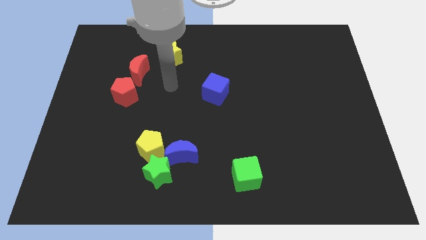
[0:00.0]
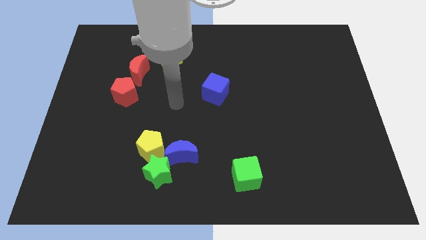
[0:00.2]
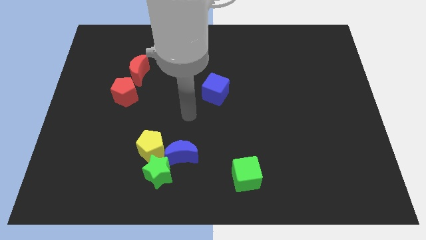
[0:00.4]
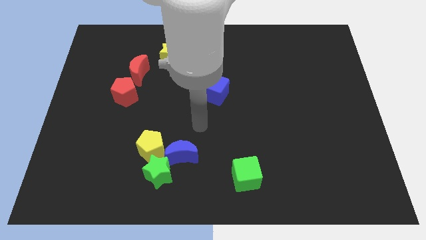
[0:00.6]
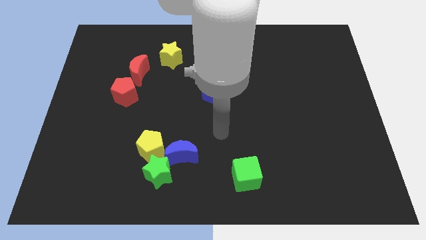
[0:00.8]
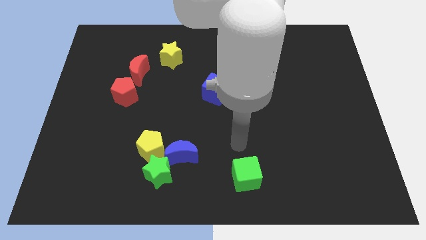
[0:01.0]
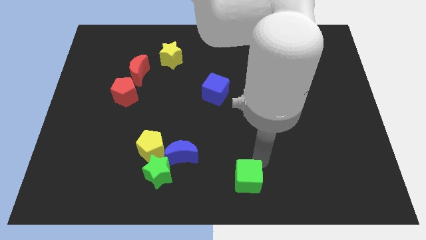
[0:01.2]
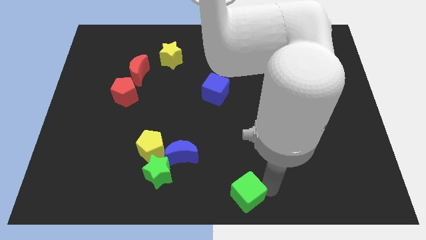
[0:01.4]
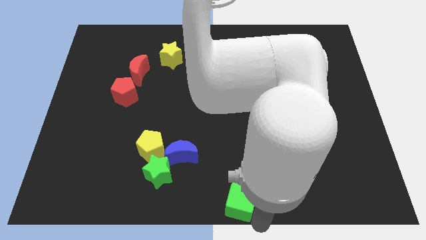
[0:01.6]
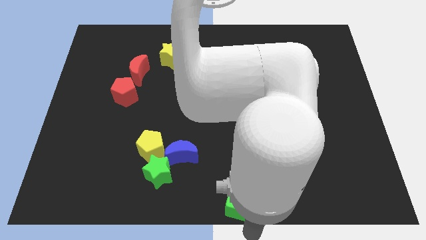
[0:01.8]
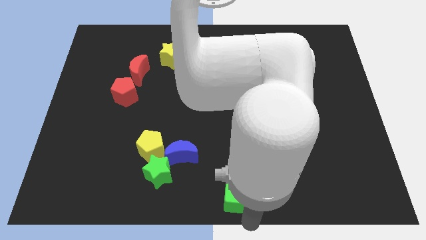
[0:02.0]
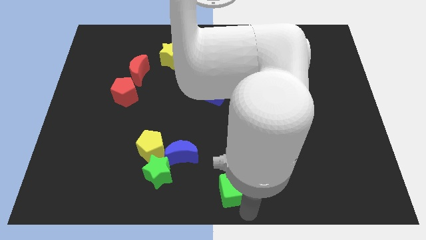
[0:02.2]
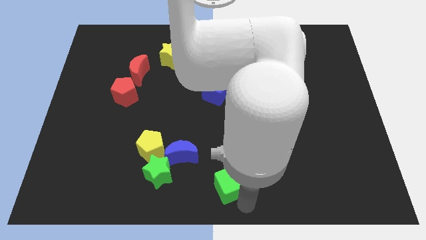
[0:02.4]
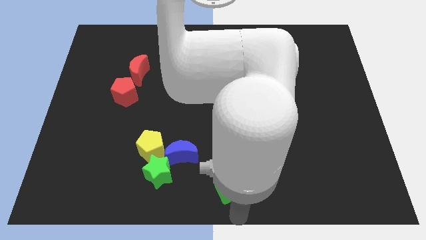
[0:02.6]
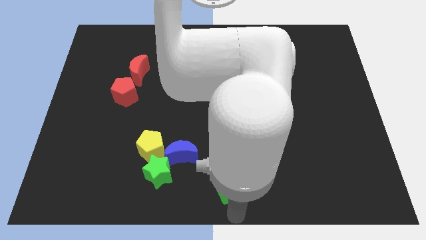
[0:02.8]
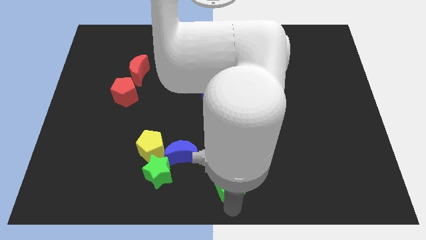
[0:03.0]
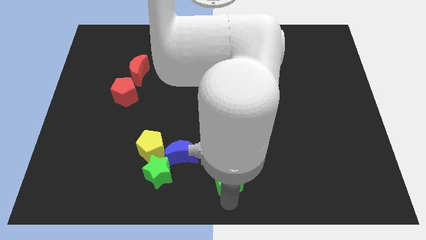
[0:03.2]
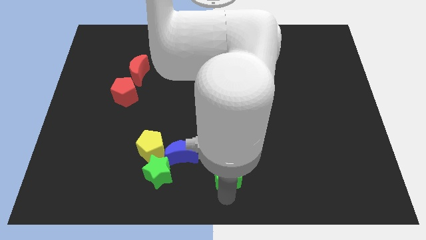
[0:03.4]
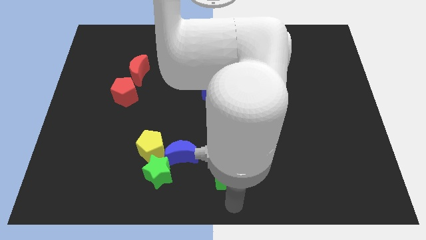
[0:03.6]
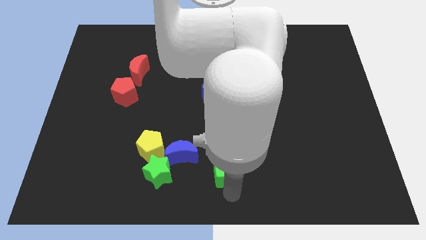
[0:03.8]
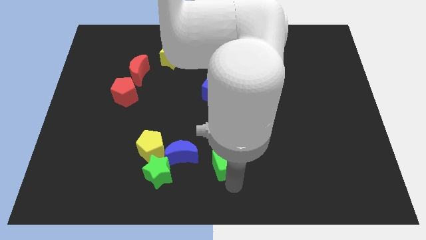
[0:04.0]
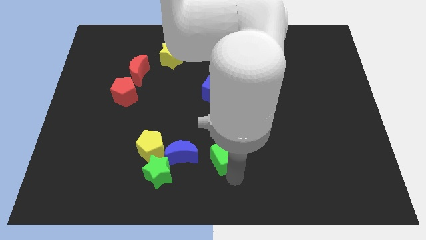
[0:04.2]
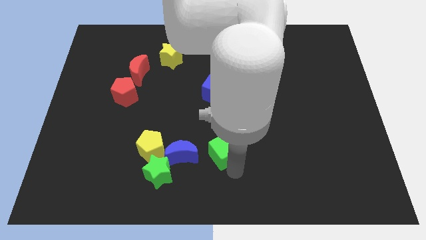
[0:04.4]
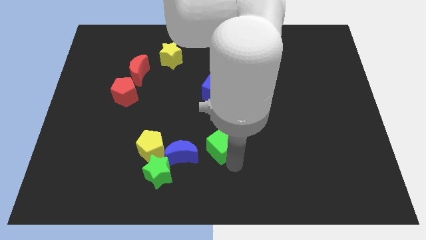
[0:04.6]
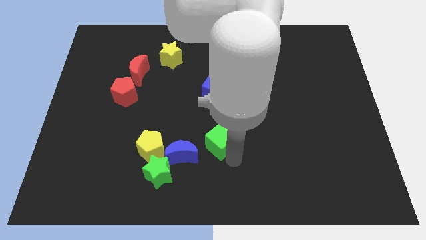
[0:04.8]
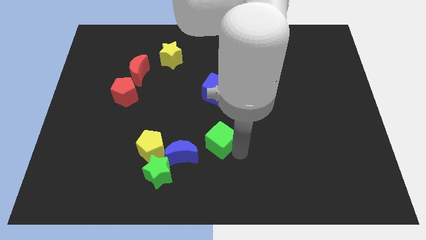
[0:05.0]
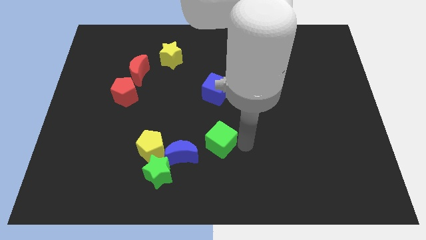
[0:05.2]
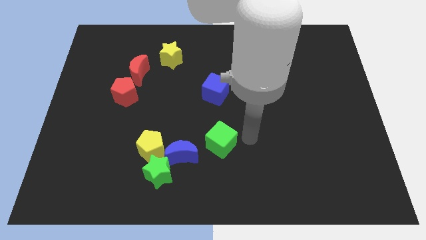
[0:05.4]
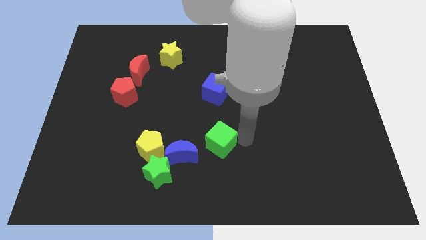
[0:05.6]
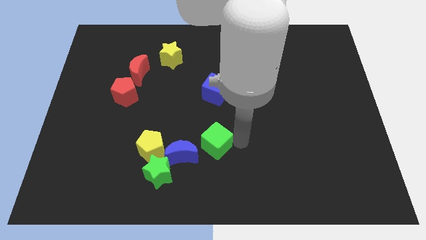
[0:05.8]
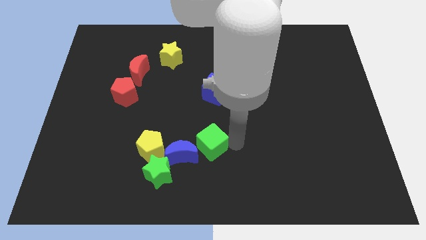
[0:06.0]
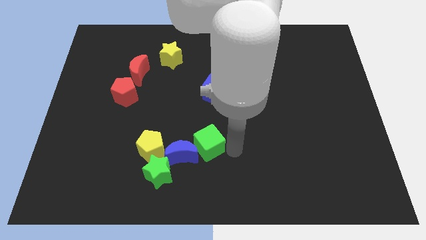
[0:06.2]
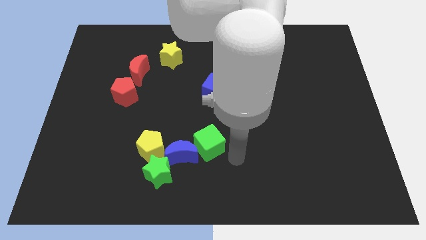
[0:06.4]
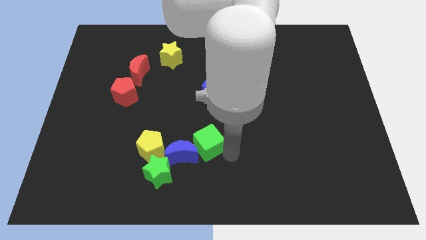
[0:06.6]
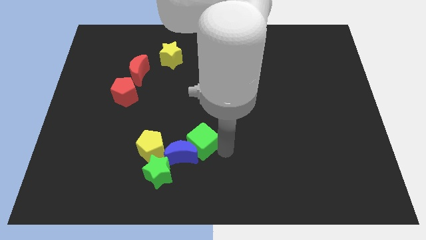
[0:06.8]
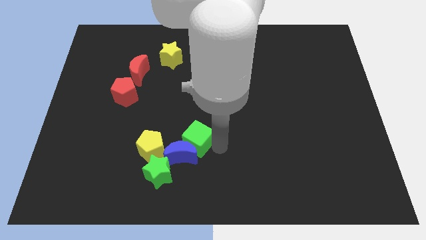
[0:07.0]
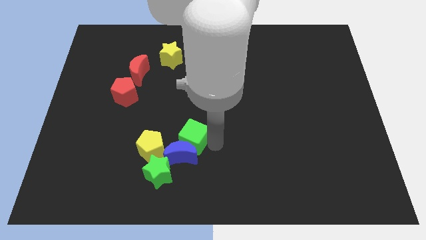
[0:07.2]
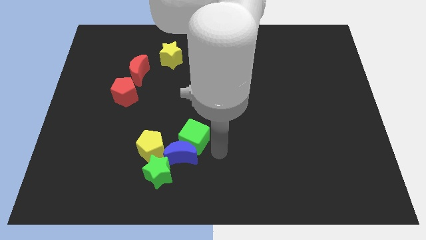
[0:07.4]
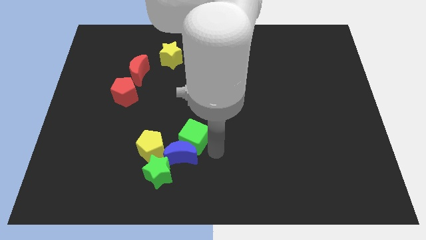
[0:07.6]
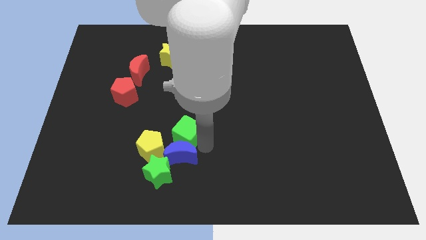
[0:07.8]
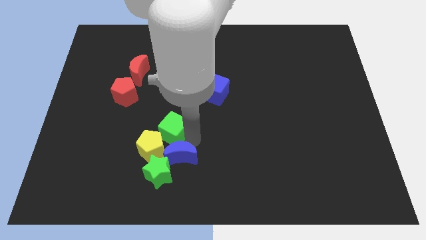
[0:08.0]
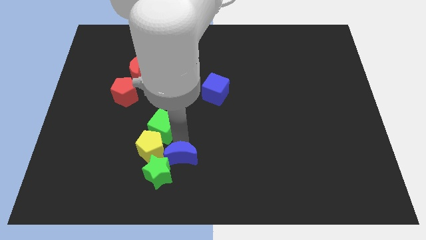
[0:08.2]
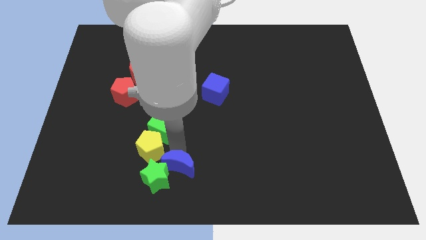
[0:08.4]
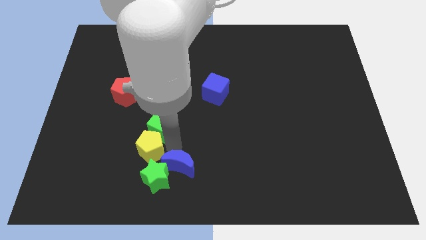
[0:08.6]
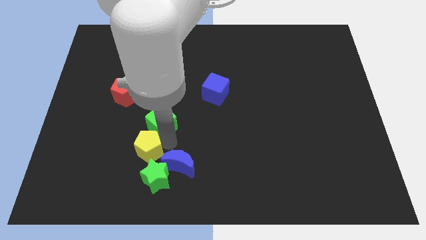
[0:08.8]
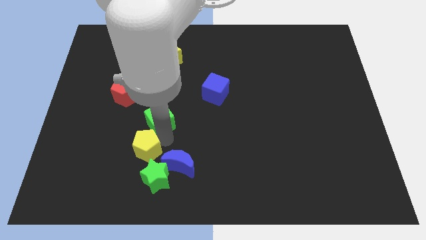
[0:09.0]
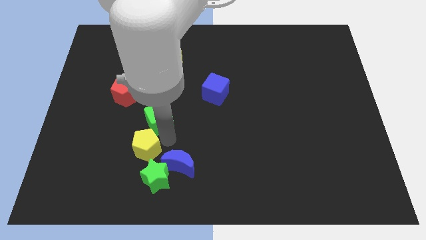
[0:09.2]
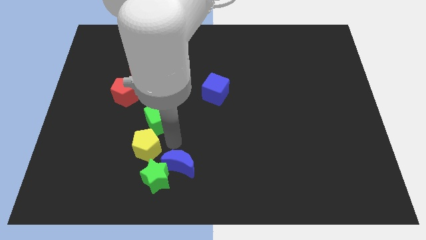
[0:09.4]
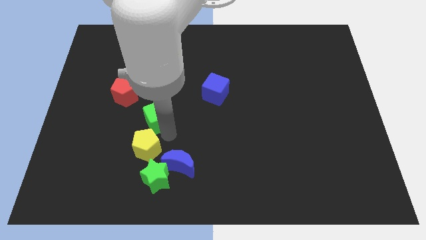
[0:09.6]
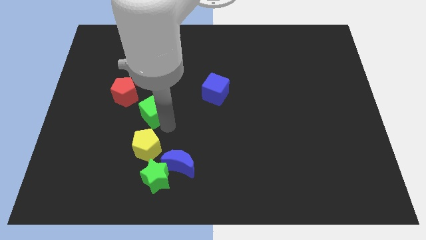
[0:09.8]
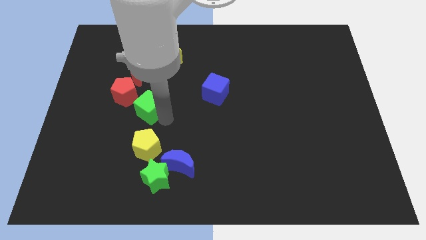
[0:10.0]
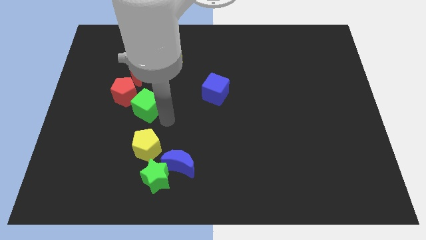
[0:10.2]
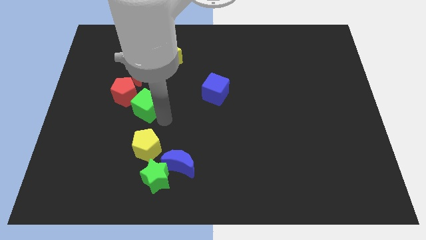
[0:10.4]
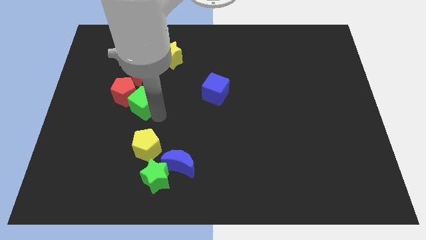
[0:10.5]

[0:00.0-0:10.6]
slide the green cube to the red pentagon

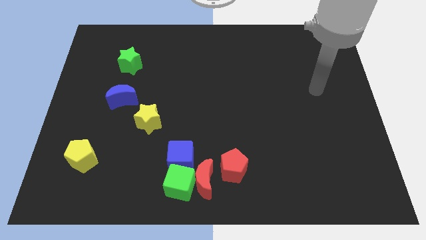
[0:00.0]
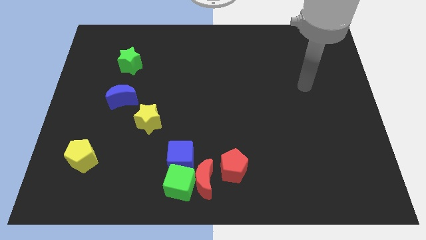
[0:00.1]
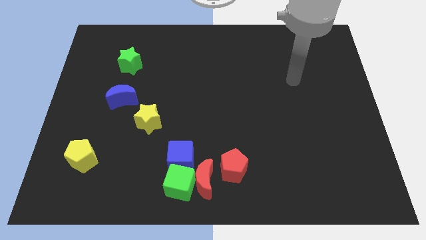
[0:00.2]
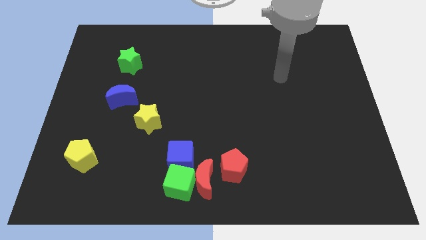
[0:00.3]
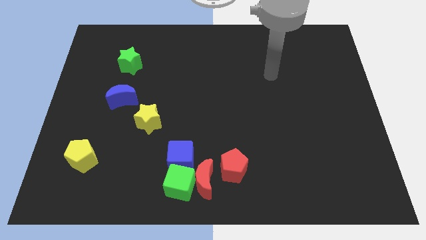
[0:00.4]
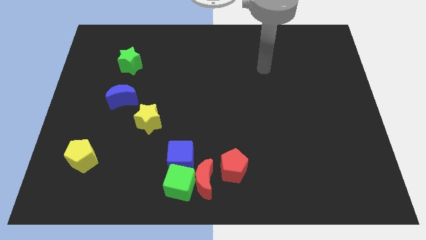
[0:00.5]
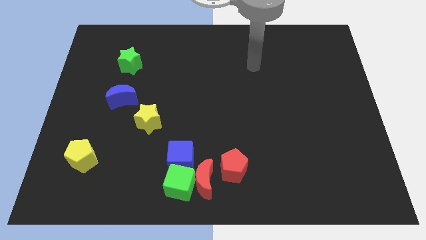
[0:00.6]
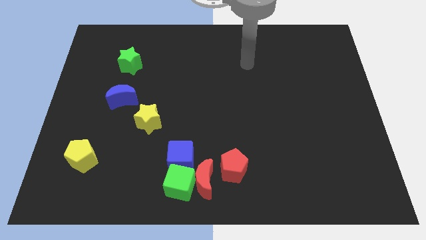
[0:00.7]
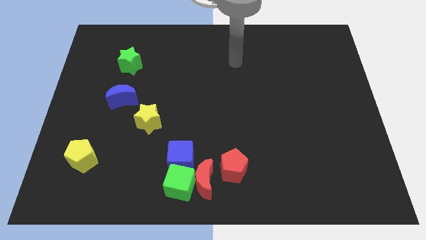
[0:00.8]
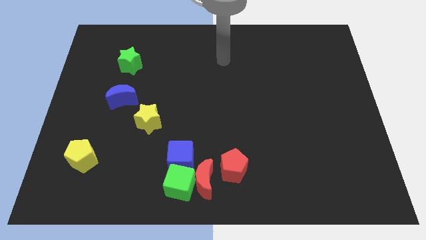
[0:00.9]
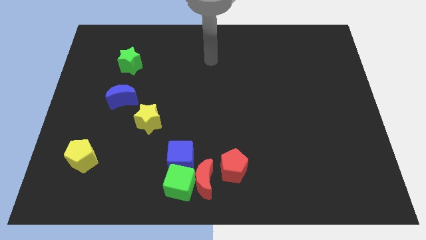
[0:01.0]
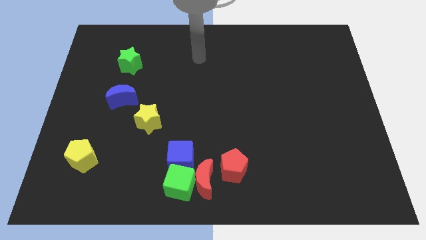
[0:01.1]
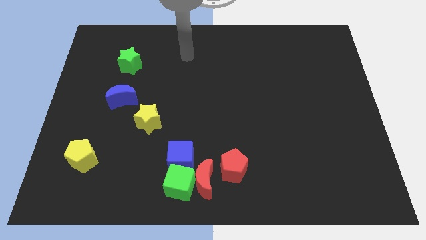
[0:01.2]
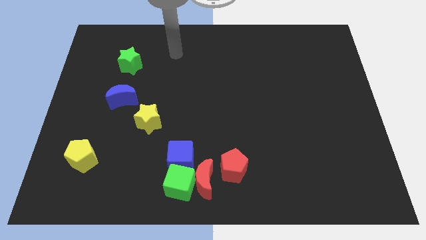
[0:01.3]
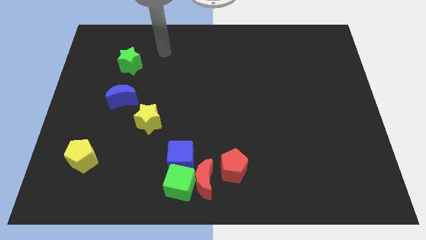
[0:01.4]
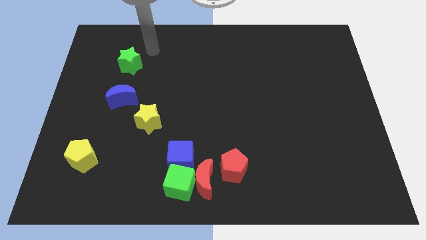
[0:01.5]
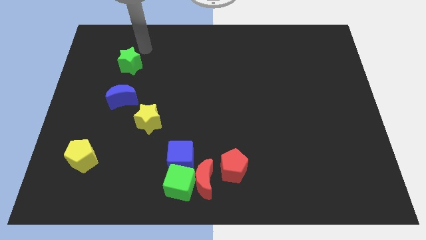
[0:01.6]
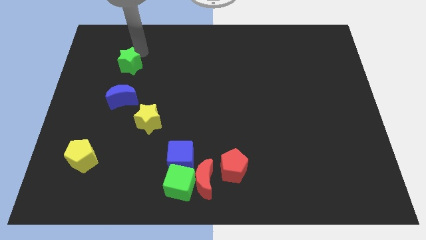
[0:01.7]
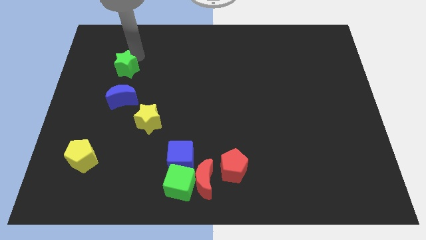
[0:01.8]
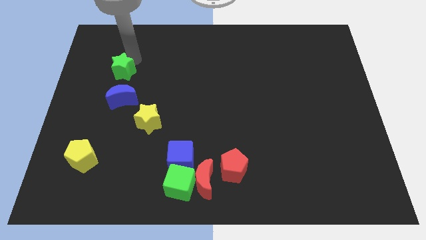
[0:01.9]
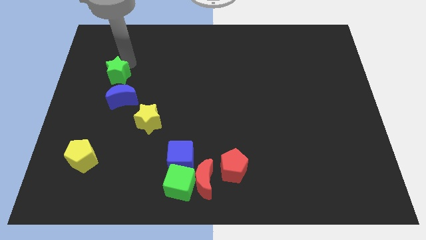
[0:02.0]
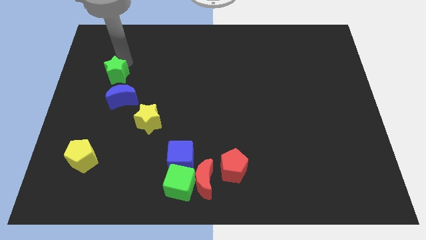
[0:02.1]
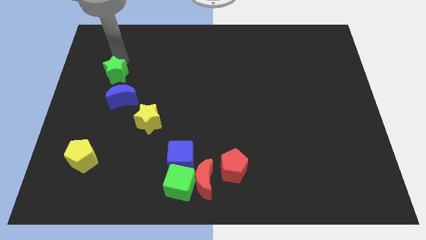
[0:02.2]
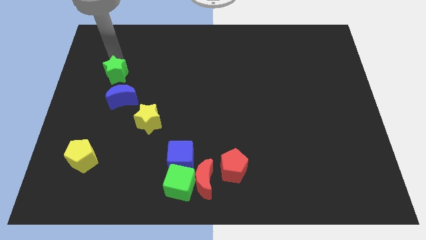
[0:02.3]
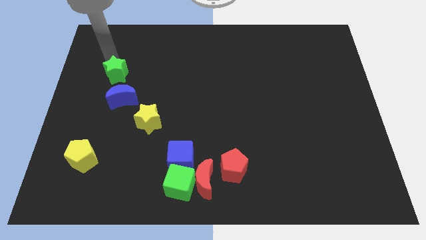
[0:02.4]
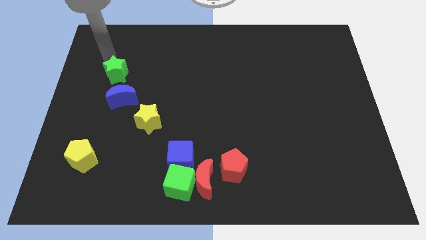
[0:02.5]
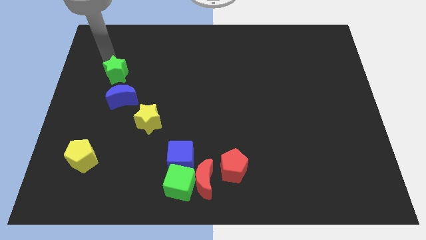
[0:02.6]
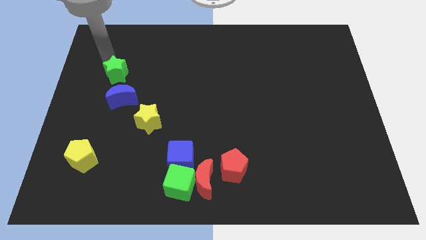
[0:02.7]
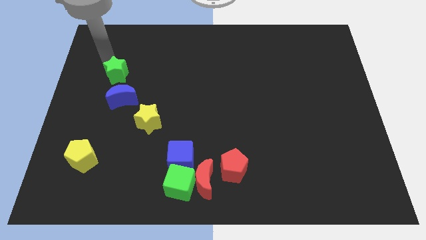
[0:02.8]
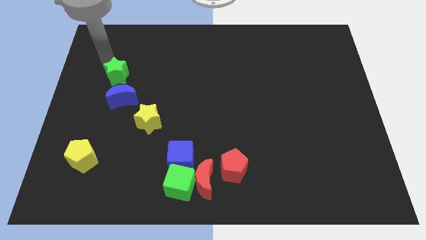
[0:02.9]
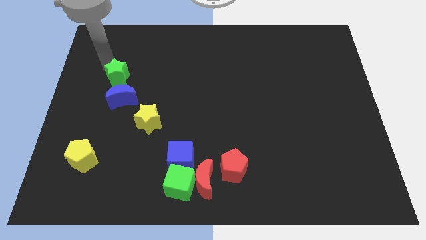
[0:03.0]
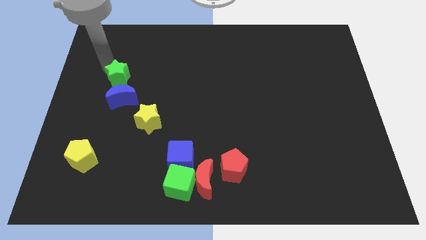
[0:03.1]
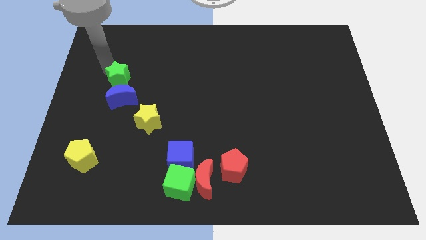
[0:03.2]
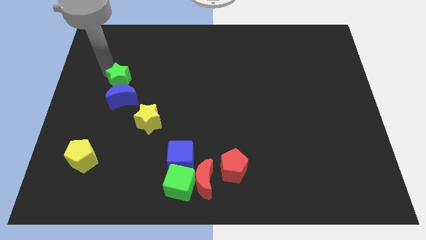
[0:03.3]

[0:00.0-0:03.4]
put the green star to the blue moon
